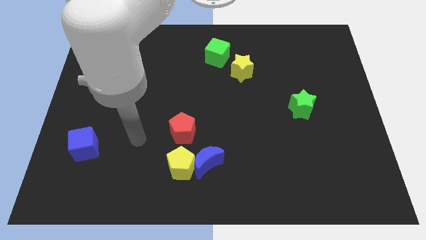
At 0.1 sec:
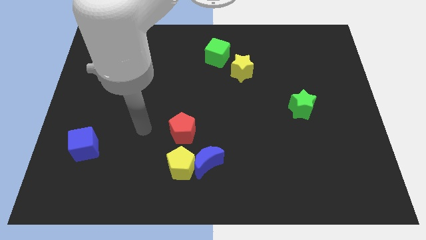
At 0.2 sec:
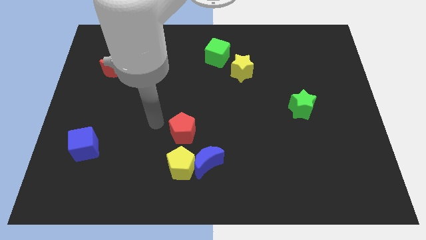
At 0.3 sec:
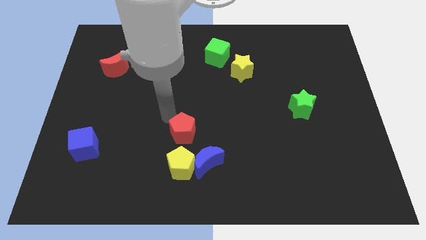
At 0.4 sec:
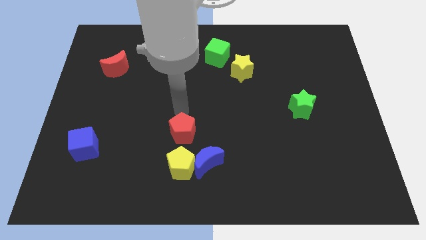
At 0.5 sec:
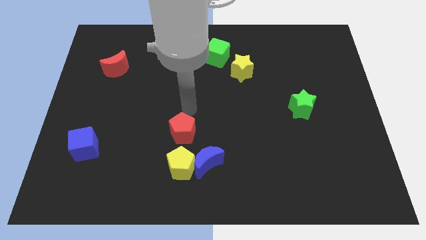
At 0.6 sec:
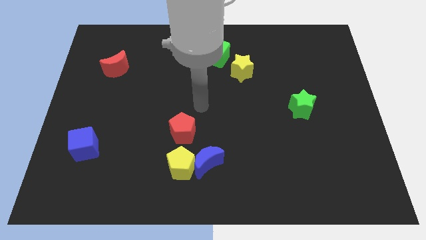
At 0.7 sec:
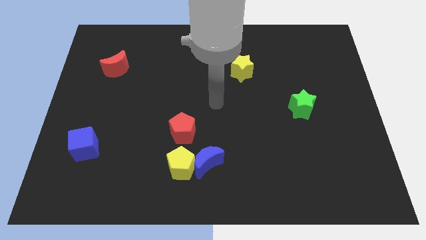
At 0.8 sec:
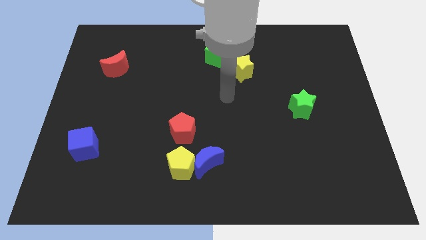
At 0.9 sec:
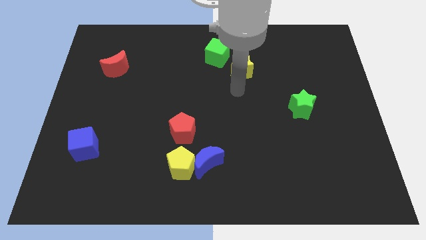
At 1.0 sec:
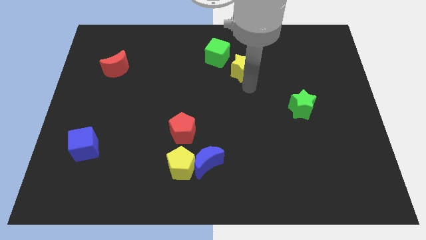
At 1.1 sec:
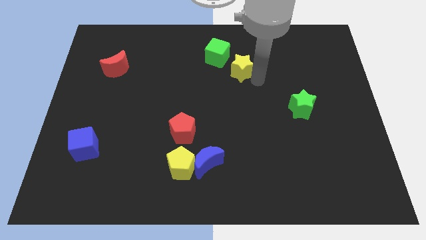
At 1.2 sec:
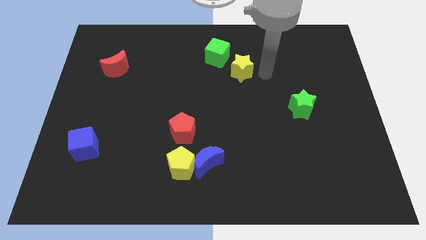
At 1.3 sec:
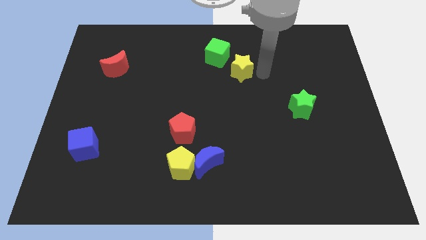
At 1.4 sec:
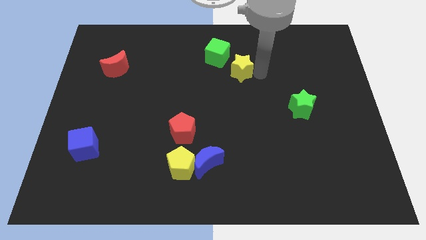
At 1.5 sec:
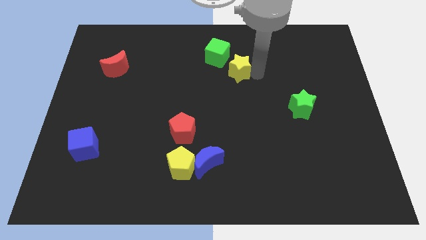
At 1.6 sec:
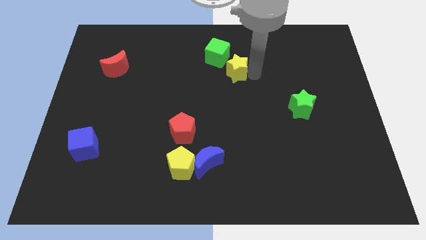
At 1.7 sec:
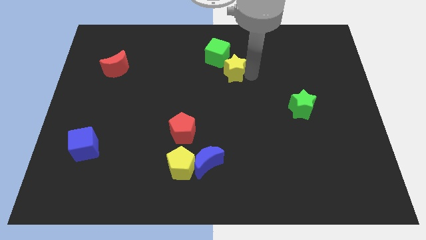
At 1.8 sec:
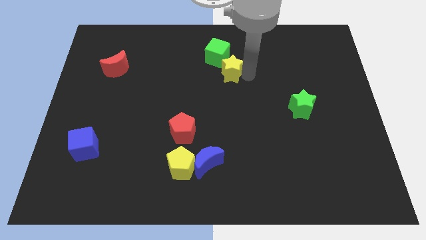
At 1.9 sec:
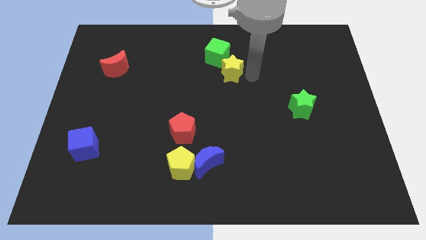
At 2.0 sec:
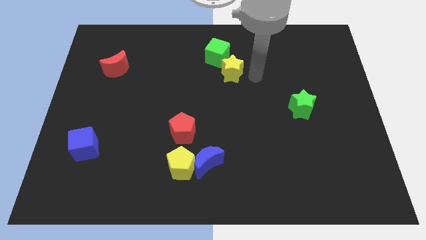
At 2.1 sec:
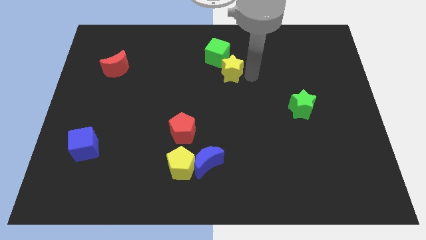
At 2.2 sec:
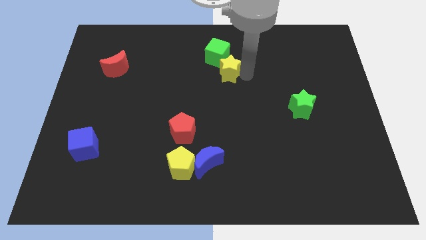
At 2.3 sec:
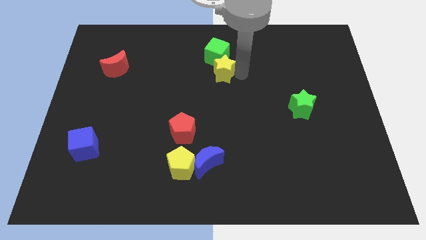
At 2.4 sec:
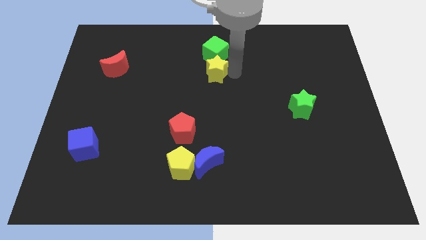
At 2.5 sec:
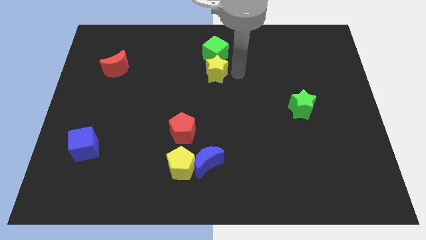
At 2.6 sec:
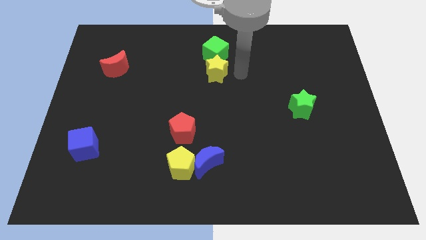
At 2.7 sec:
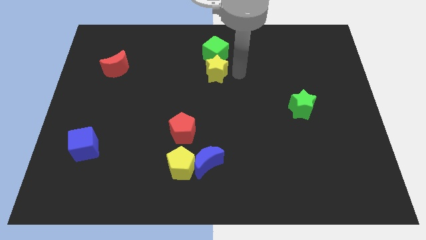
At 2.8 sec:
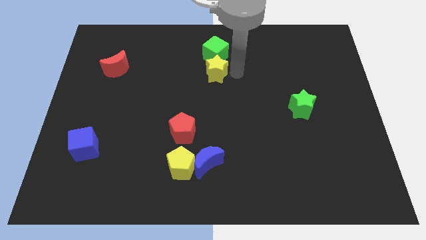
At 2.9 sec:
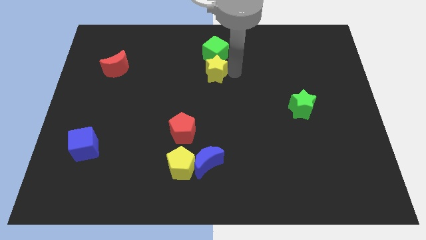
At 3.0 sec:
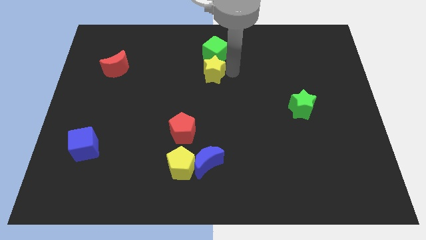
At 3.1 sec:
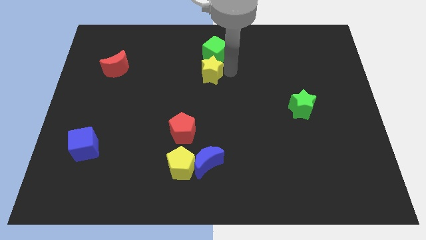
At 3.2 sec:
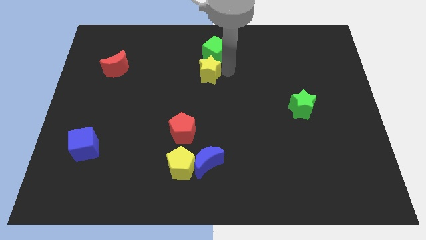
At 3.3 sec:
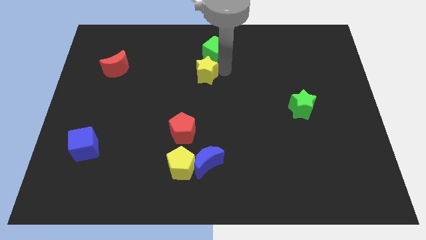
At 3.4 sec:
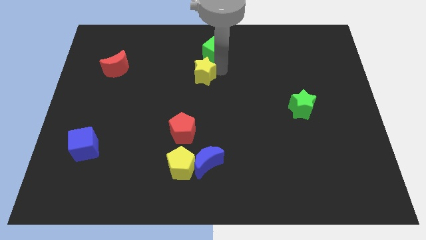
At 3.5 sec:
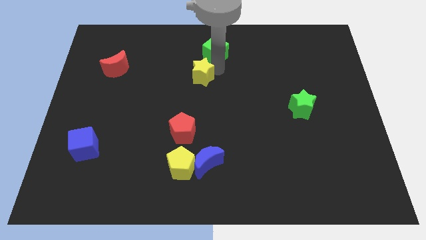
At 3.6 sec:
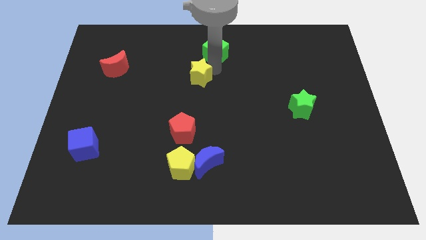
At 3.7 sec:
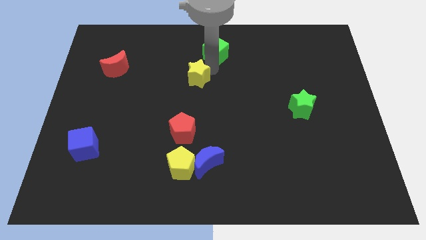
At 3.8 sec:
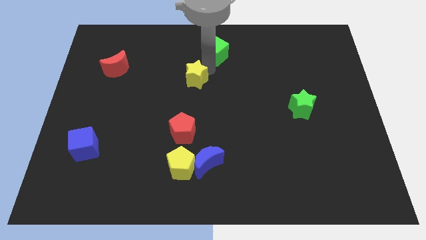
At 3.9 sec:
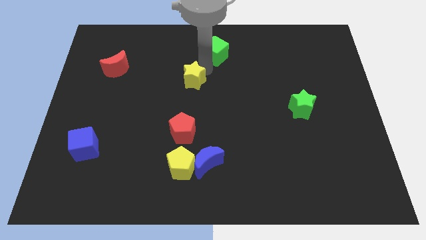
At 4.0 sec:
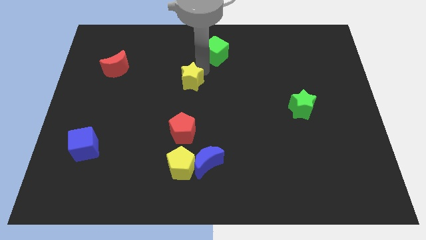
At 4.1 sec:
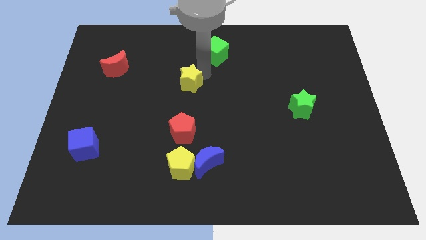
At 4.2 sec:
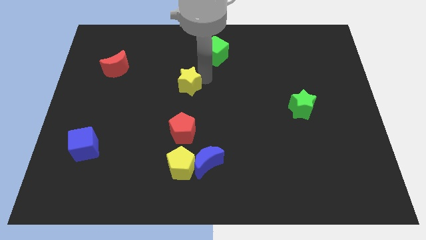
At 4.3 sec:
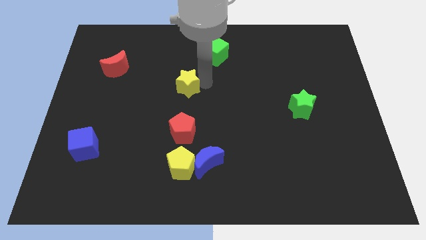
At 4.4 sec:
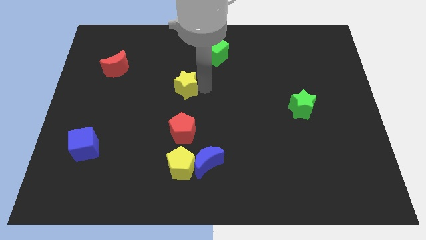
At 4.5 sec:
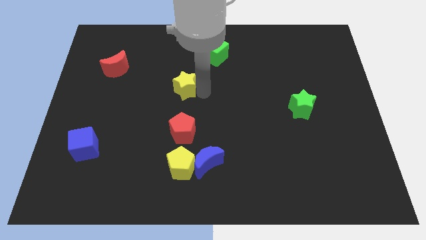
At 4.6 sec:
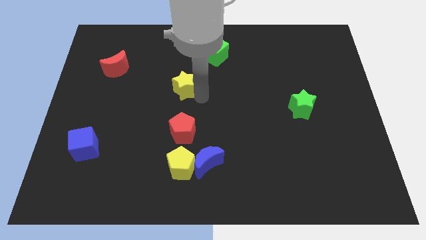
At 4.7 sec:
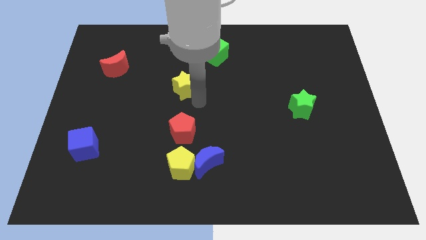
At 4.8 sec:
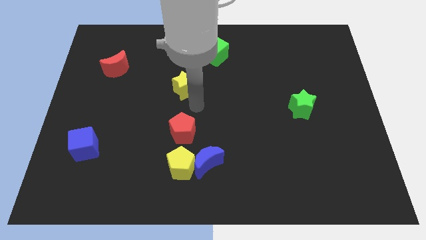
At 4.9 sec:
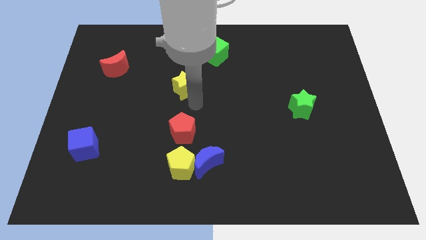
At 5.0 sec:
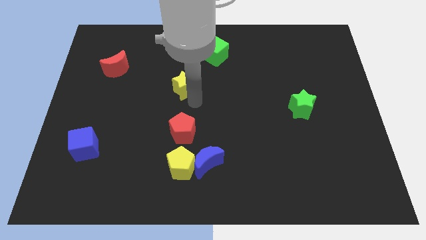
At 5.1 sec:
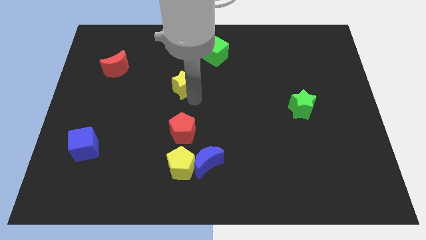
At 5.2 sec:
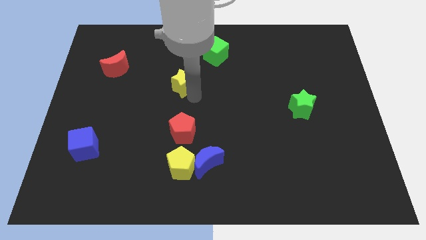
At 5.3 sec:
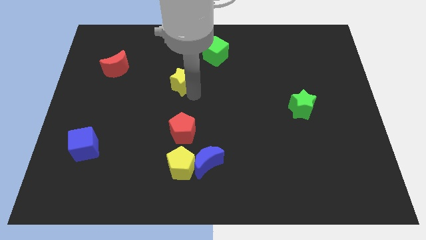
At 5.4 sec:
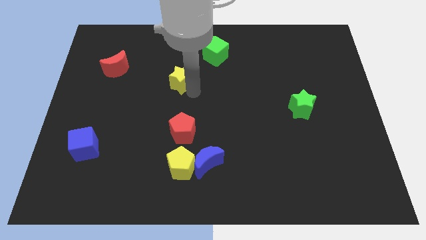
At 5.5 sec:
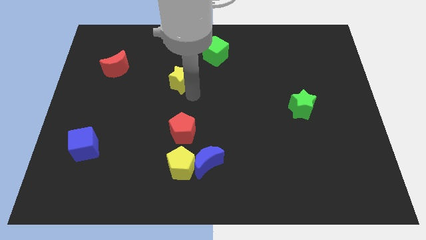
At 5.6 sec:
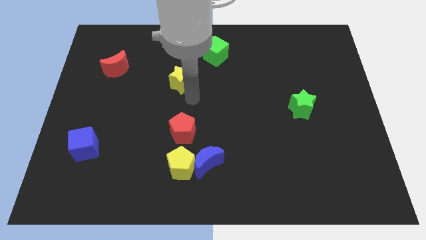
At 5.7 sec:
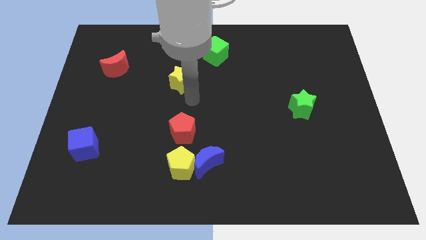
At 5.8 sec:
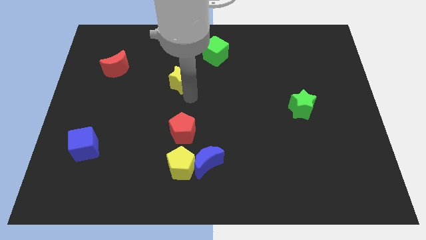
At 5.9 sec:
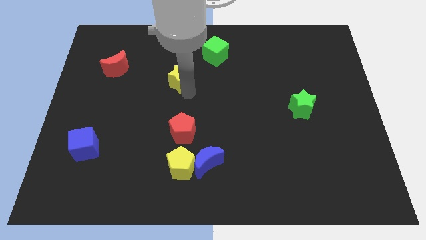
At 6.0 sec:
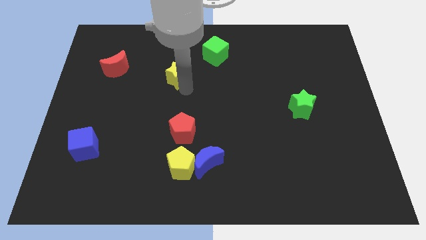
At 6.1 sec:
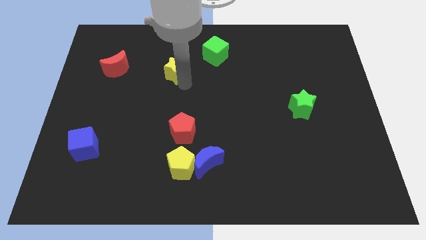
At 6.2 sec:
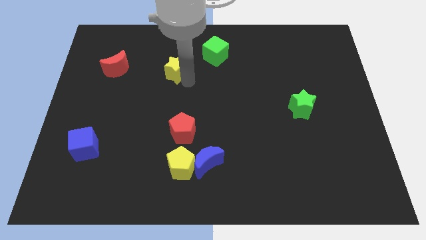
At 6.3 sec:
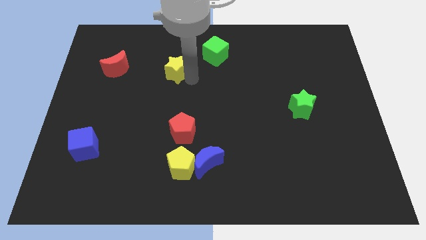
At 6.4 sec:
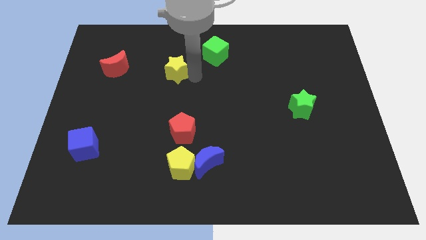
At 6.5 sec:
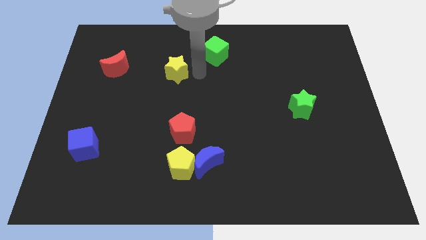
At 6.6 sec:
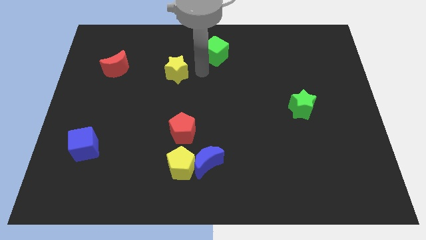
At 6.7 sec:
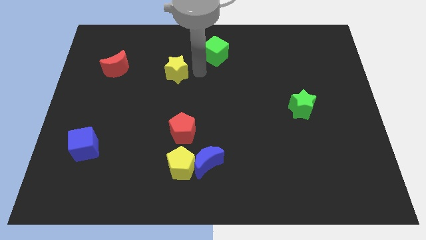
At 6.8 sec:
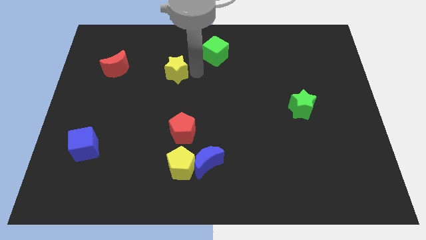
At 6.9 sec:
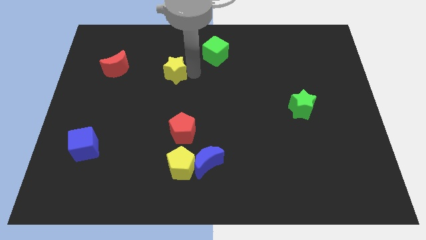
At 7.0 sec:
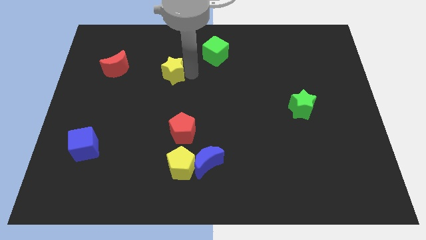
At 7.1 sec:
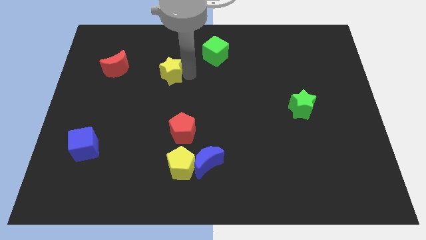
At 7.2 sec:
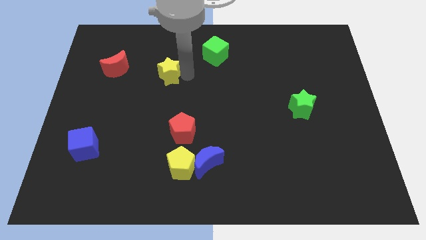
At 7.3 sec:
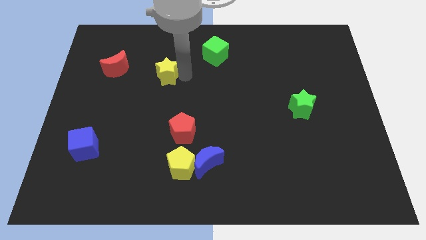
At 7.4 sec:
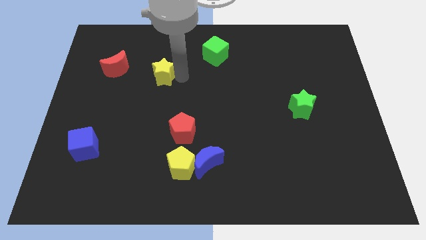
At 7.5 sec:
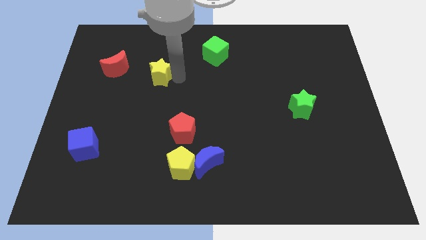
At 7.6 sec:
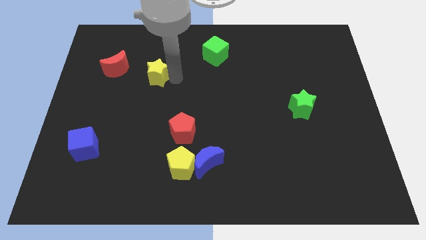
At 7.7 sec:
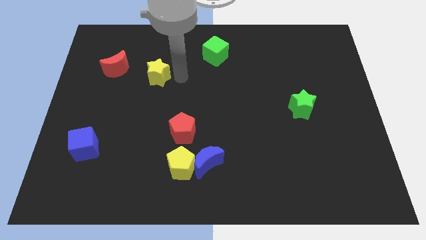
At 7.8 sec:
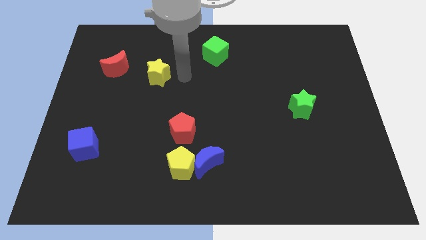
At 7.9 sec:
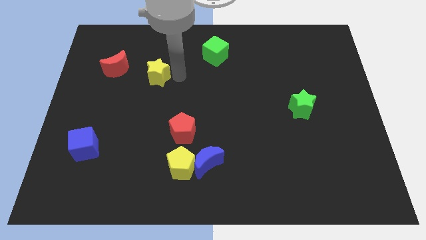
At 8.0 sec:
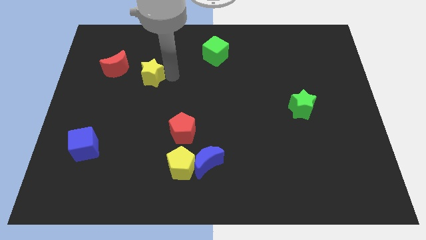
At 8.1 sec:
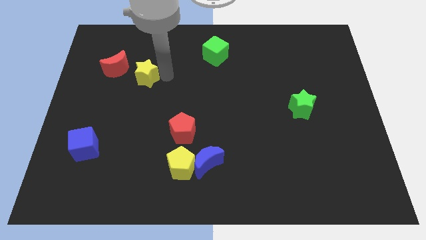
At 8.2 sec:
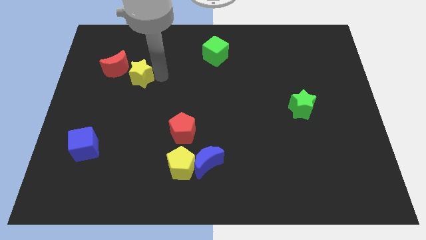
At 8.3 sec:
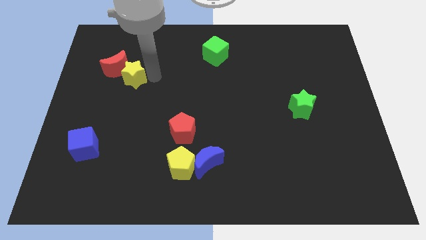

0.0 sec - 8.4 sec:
put the yellow star next to the red moon
